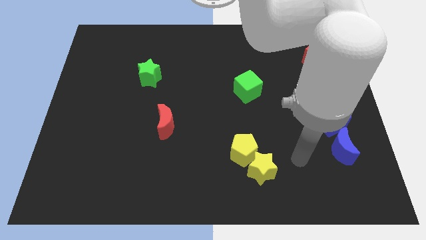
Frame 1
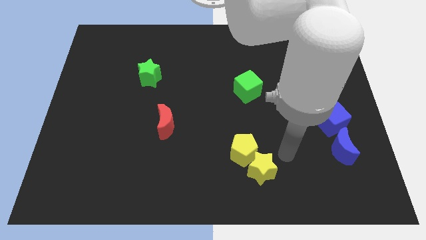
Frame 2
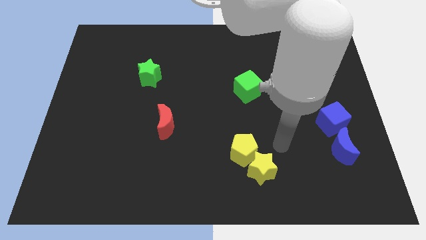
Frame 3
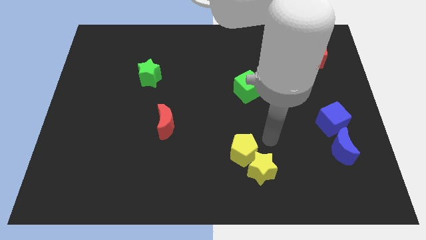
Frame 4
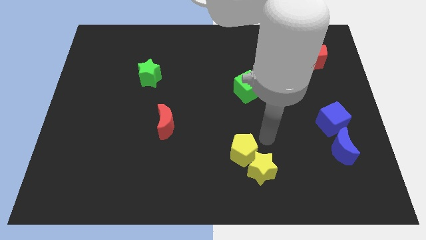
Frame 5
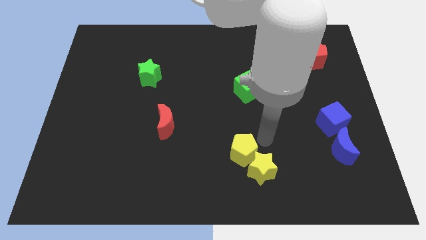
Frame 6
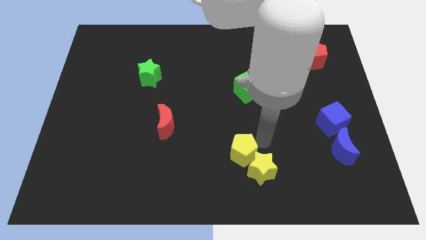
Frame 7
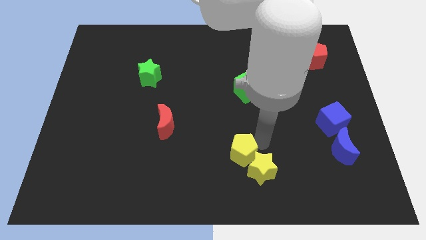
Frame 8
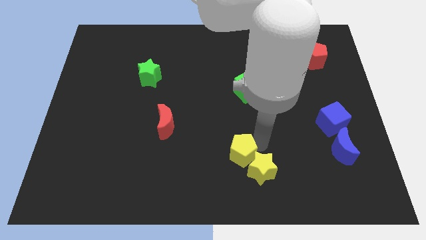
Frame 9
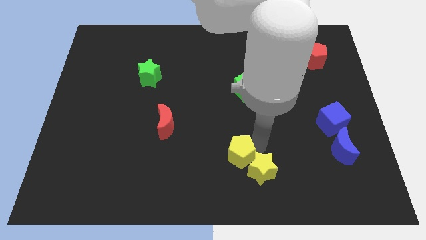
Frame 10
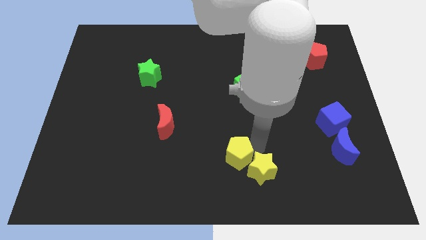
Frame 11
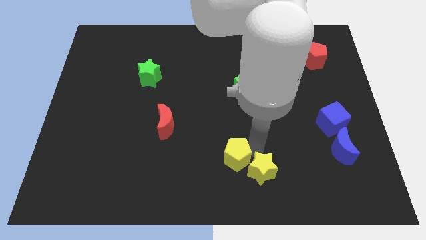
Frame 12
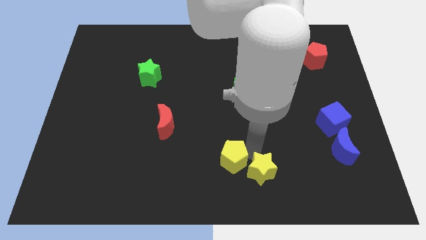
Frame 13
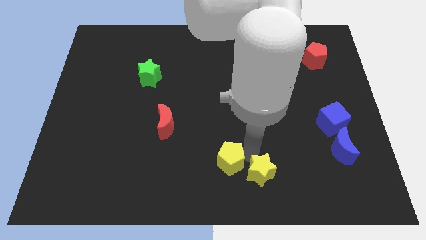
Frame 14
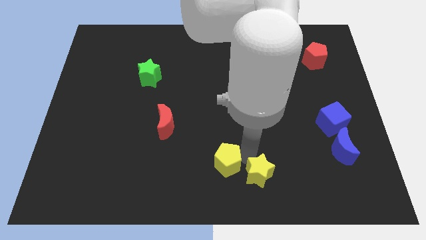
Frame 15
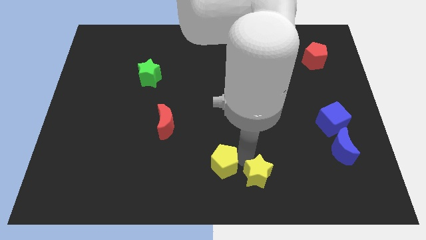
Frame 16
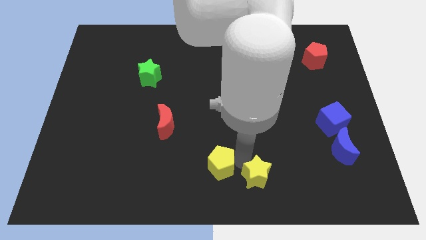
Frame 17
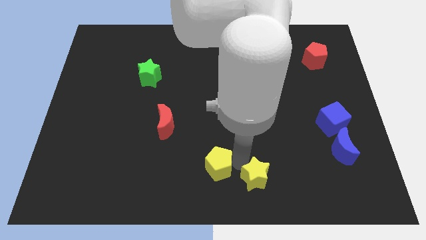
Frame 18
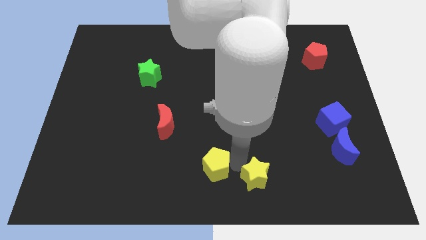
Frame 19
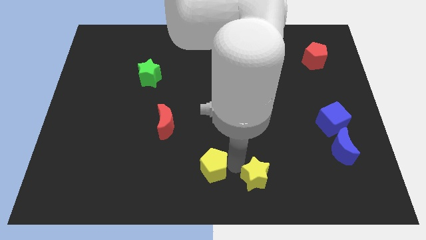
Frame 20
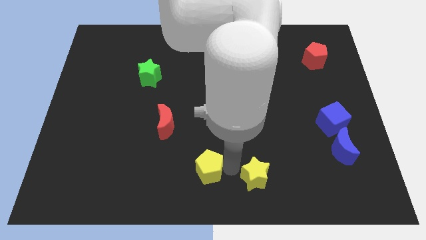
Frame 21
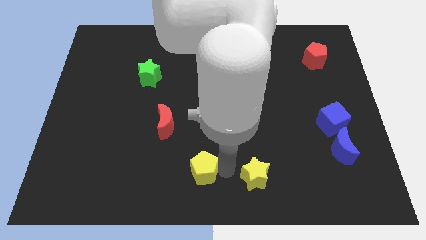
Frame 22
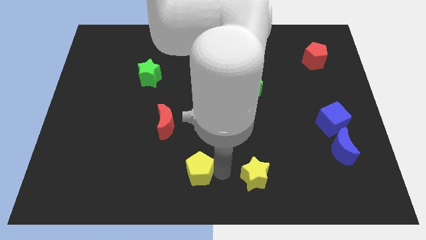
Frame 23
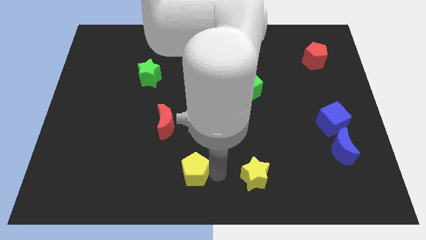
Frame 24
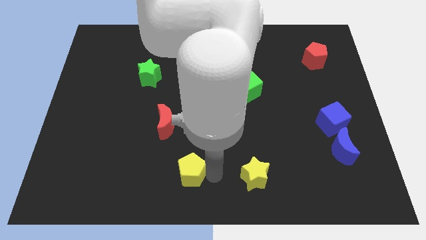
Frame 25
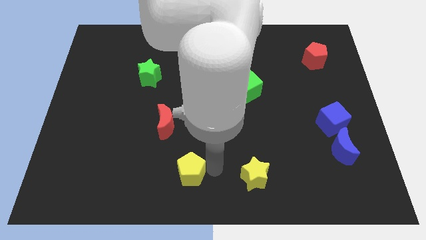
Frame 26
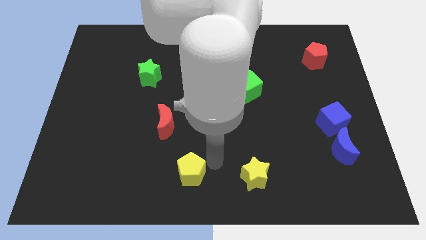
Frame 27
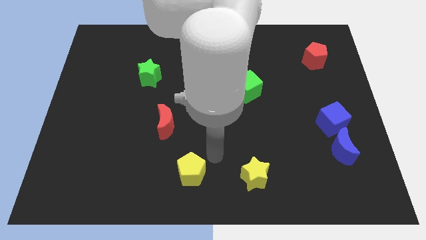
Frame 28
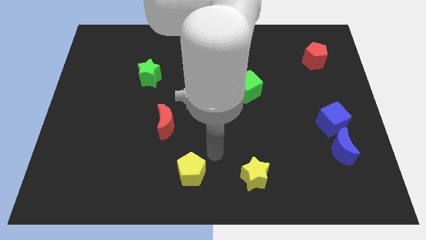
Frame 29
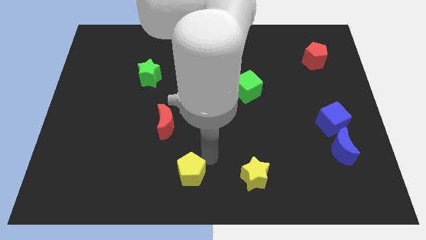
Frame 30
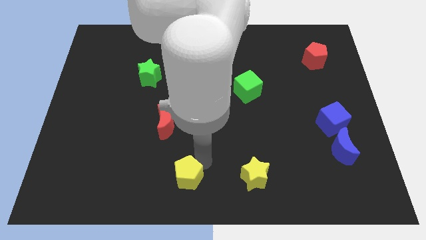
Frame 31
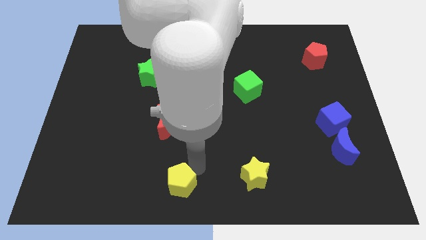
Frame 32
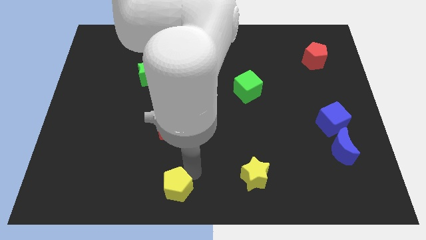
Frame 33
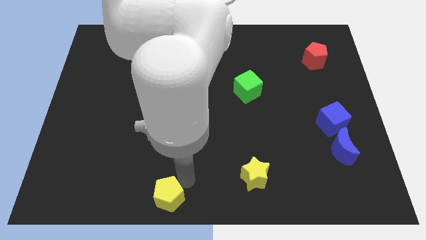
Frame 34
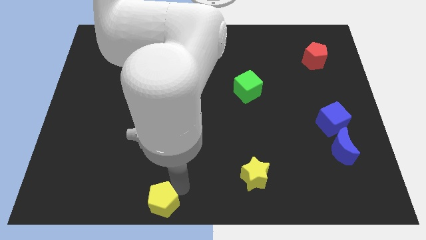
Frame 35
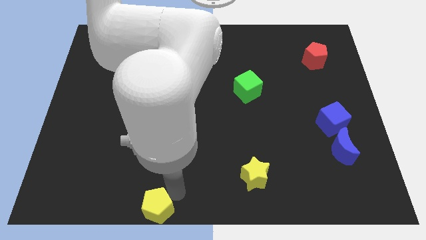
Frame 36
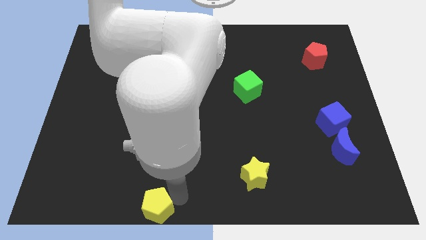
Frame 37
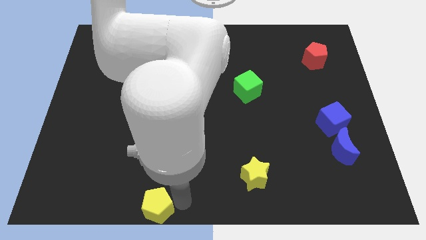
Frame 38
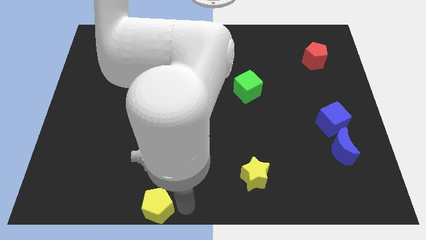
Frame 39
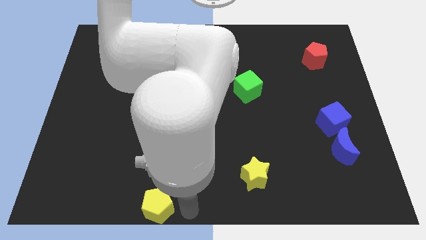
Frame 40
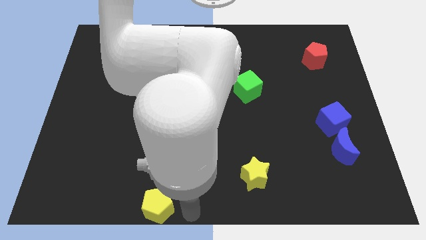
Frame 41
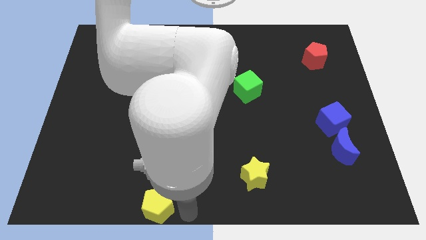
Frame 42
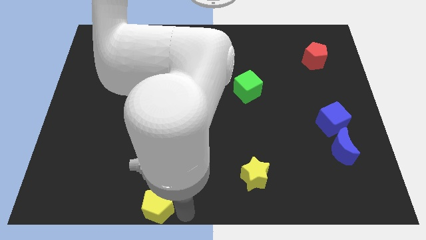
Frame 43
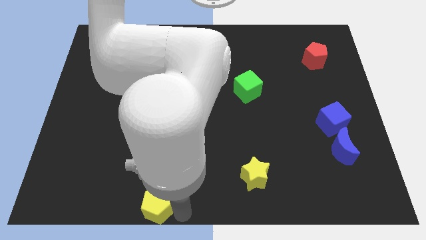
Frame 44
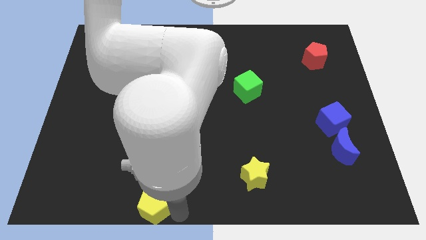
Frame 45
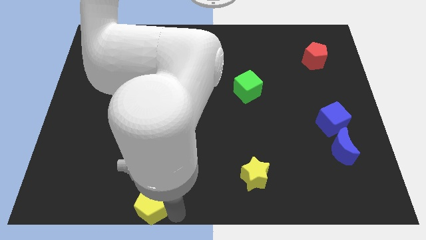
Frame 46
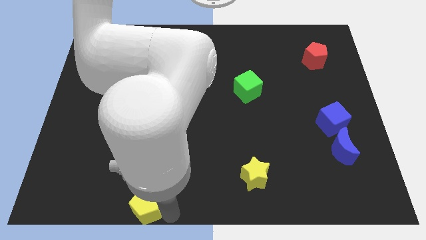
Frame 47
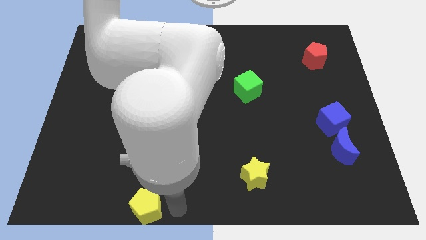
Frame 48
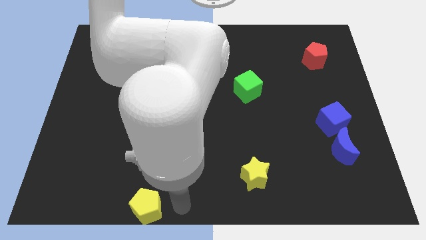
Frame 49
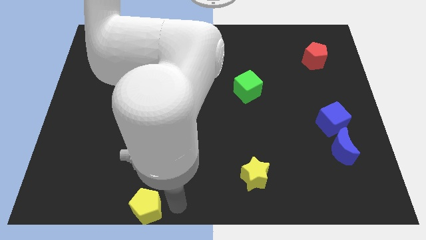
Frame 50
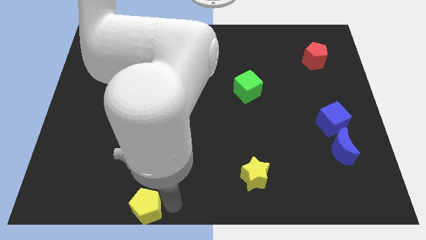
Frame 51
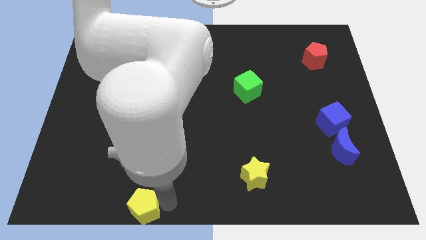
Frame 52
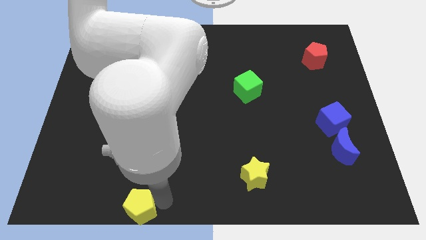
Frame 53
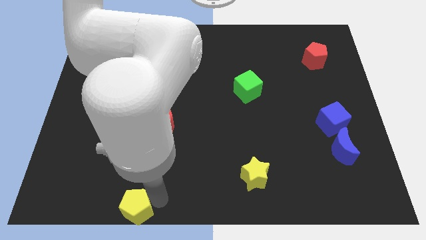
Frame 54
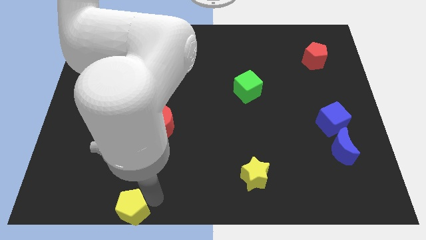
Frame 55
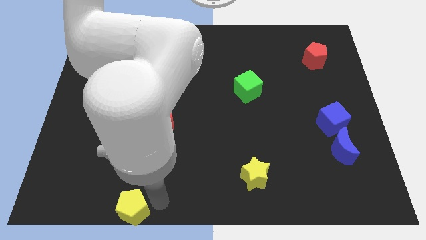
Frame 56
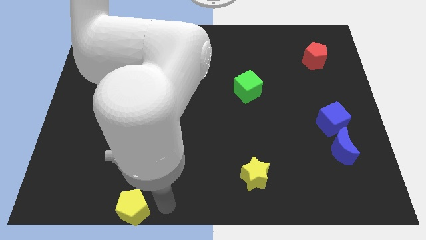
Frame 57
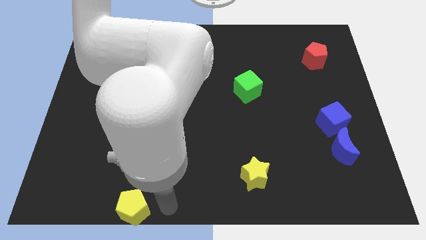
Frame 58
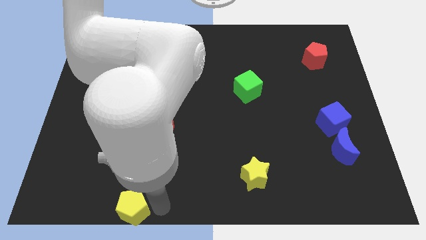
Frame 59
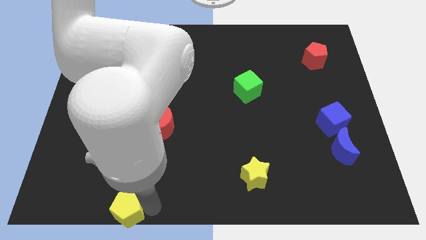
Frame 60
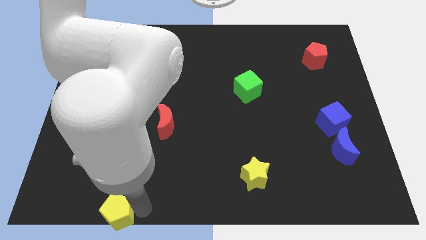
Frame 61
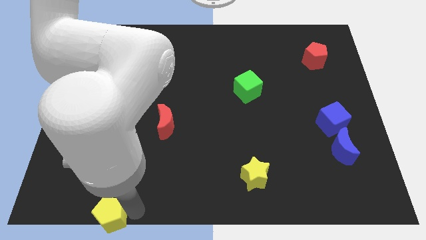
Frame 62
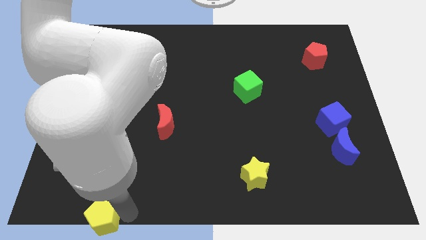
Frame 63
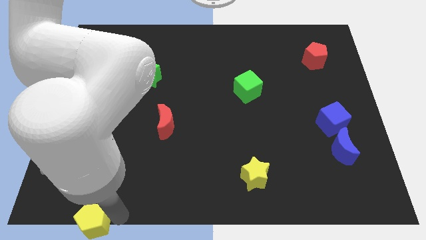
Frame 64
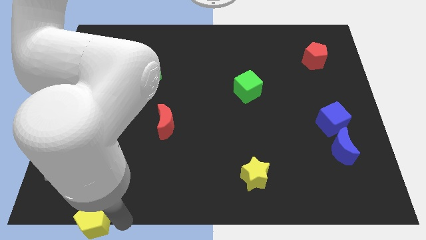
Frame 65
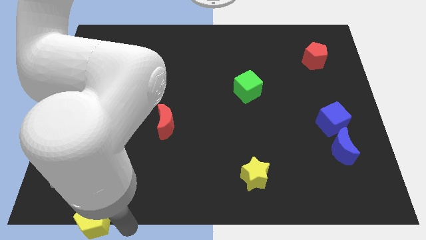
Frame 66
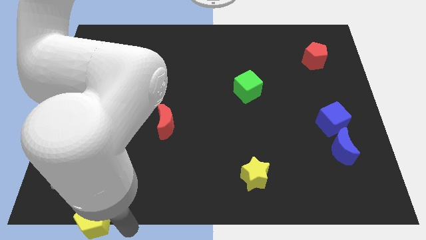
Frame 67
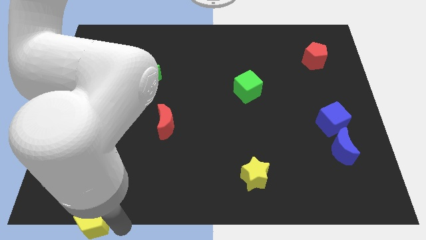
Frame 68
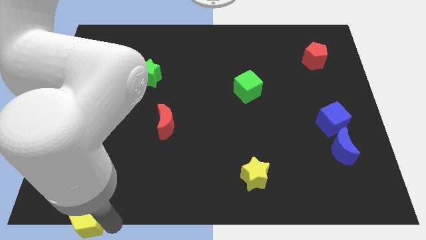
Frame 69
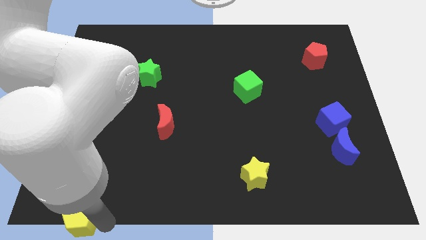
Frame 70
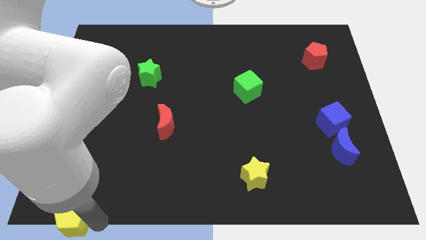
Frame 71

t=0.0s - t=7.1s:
slide the yellow pentagon to the bottom left of the board
